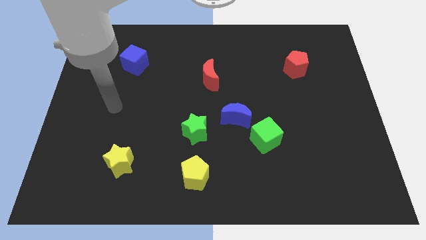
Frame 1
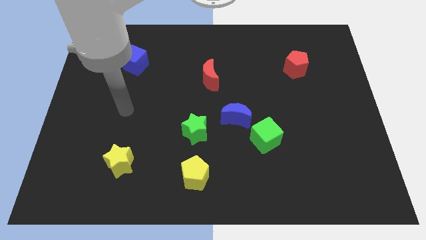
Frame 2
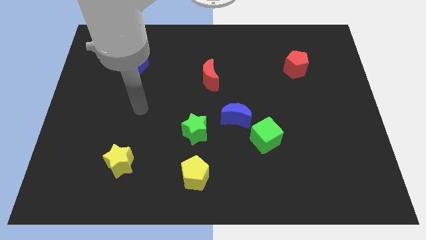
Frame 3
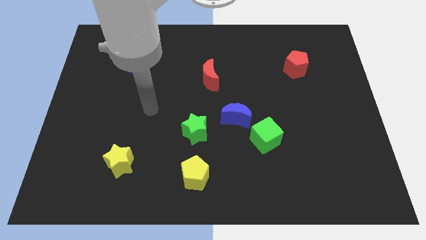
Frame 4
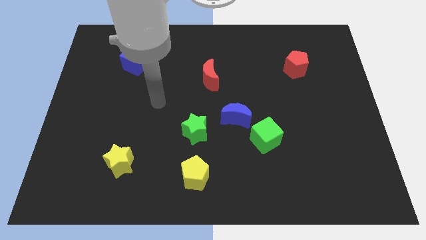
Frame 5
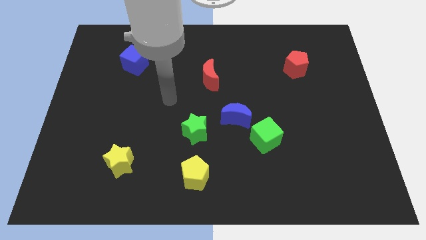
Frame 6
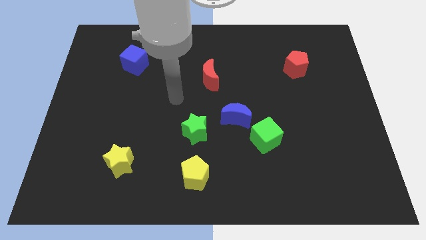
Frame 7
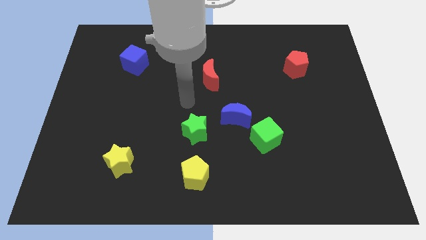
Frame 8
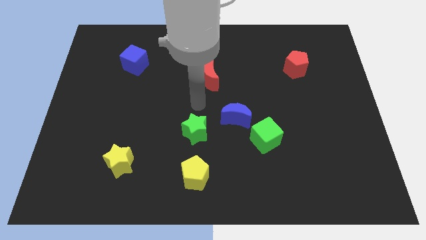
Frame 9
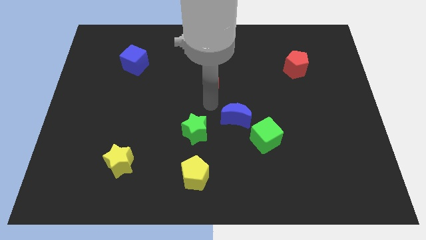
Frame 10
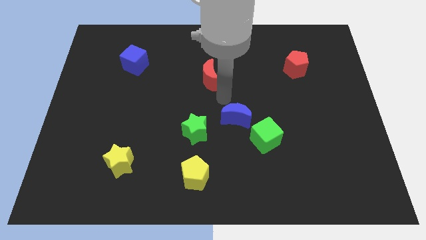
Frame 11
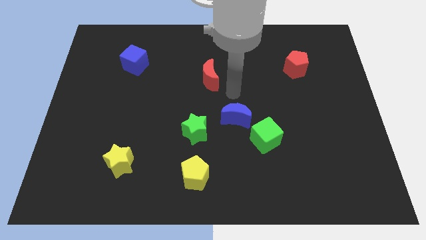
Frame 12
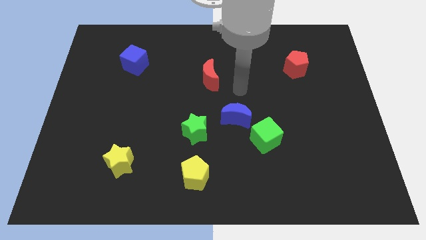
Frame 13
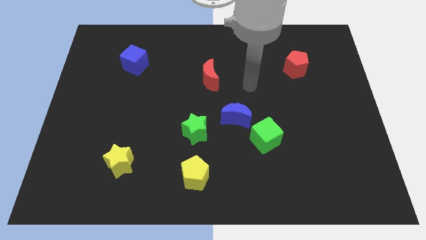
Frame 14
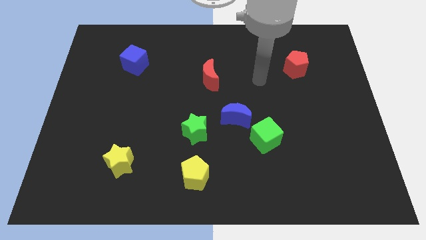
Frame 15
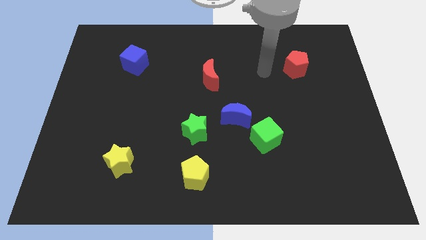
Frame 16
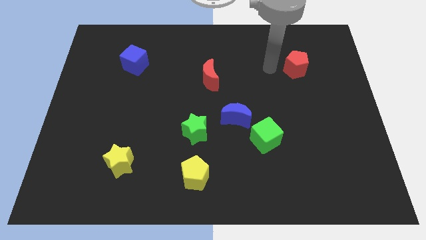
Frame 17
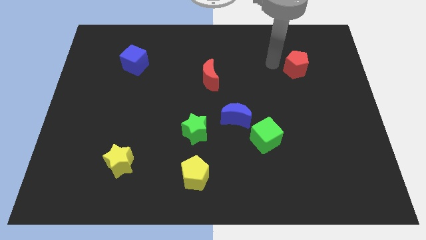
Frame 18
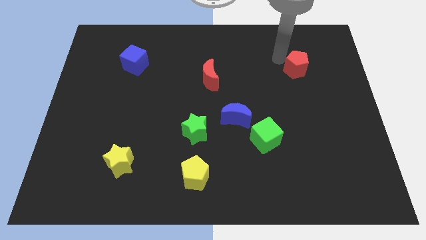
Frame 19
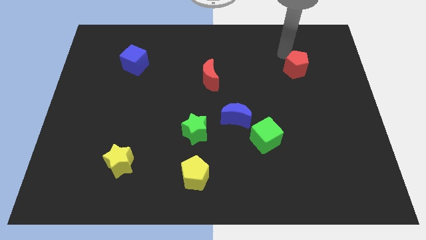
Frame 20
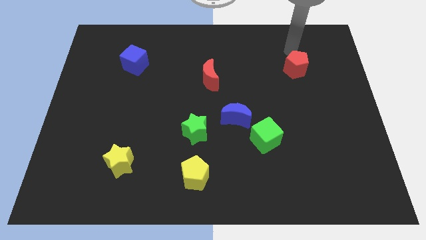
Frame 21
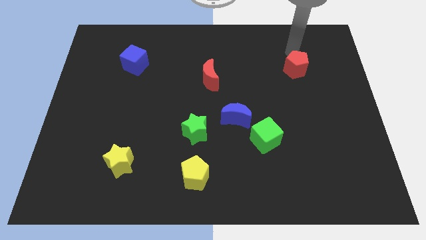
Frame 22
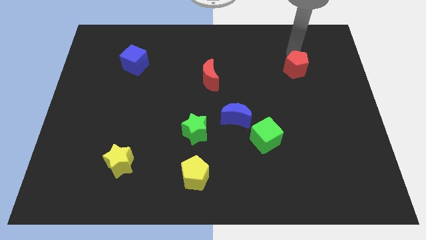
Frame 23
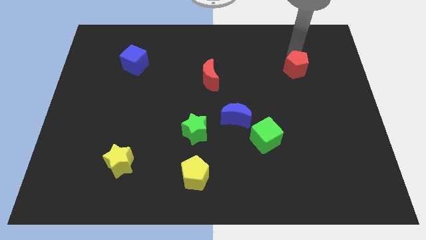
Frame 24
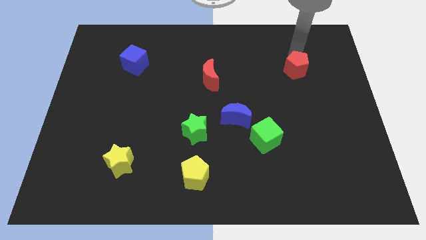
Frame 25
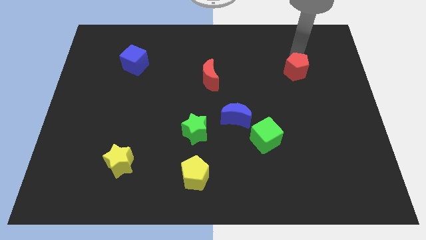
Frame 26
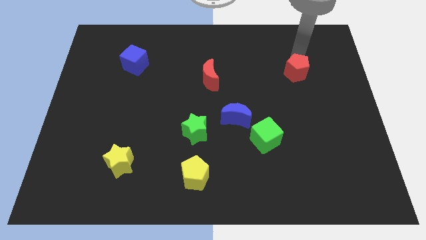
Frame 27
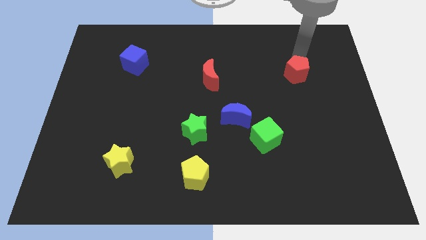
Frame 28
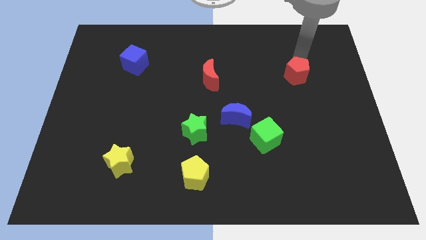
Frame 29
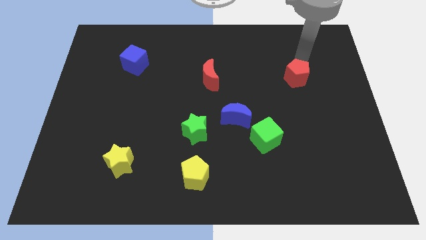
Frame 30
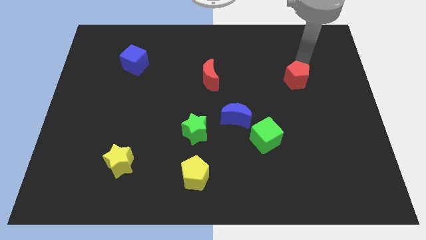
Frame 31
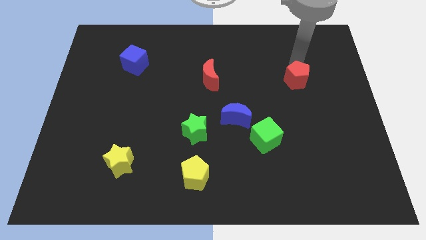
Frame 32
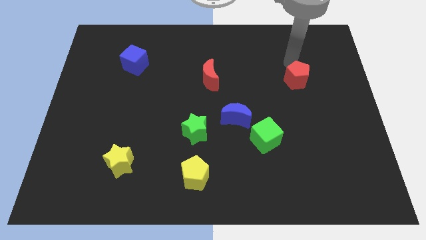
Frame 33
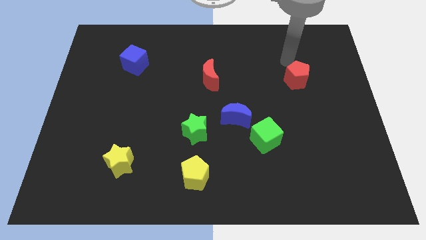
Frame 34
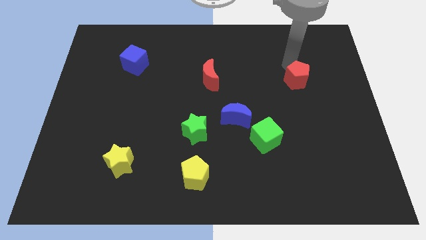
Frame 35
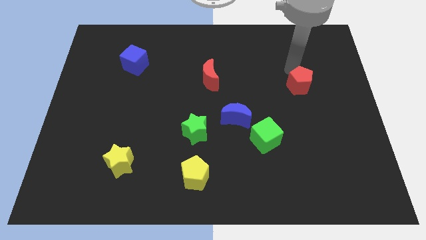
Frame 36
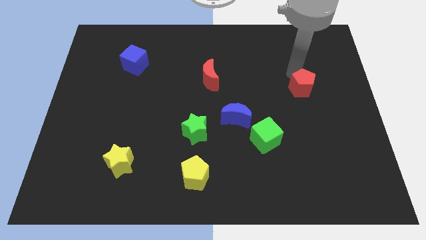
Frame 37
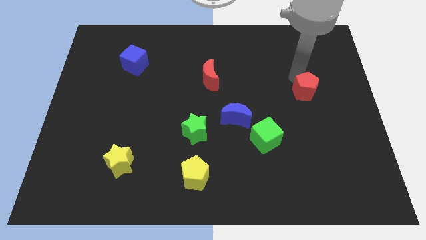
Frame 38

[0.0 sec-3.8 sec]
push the red pentagon down somewhat

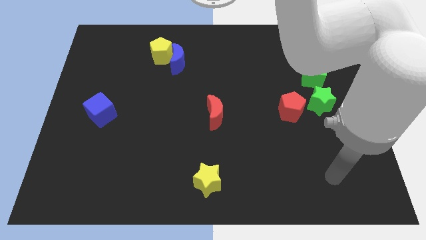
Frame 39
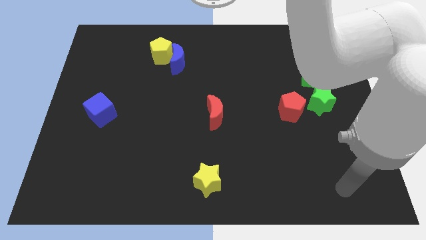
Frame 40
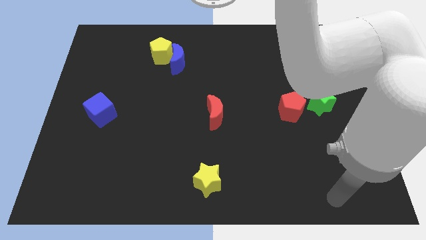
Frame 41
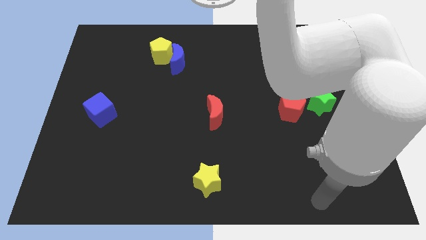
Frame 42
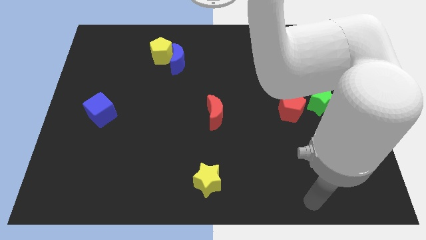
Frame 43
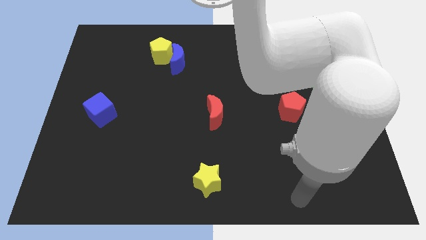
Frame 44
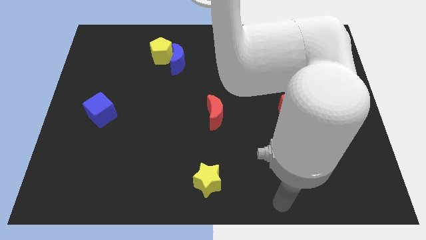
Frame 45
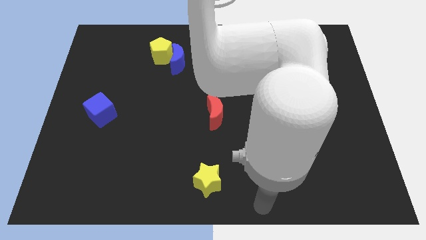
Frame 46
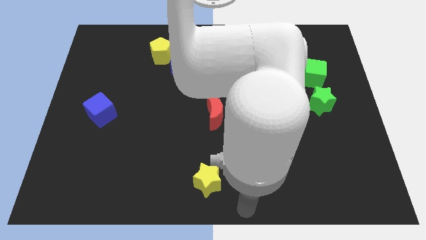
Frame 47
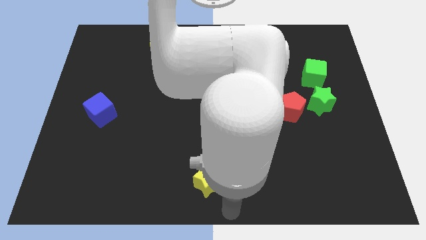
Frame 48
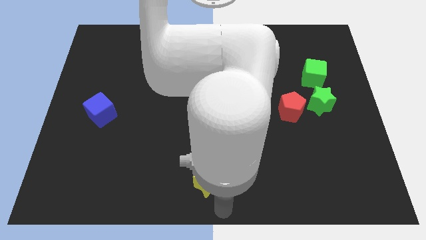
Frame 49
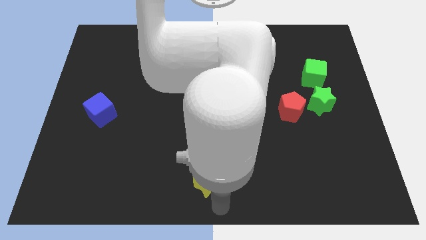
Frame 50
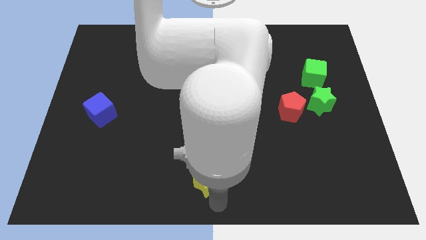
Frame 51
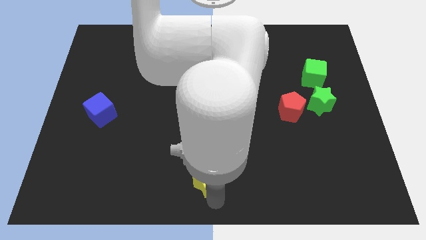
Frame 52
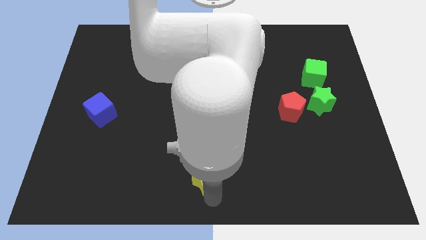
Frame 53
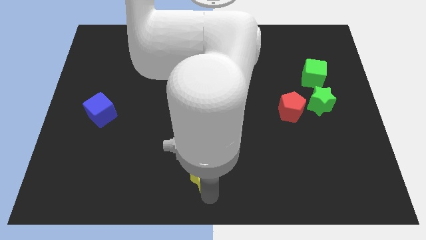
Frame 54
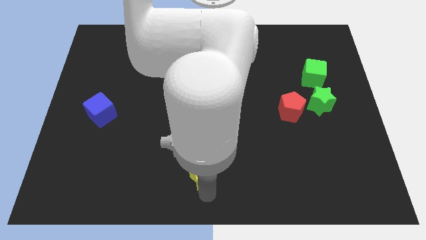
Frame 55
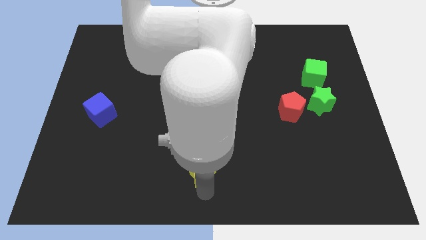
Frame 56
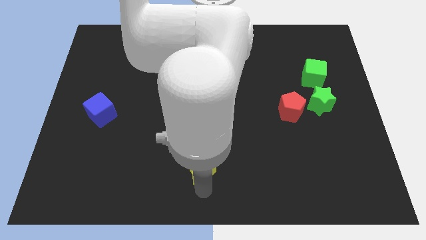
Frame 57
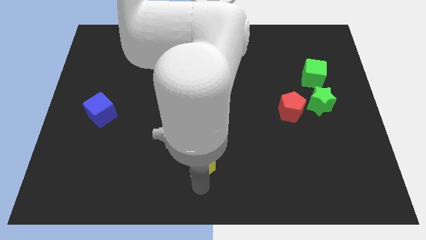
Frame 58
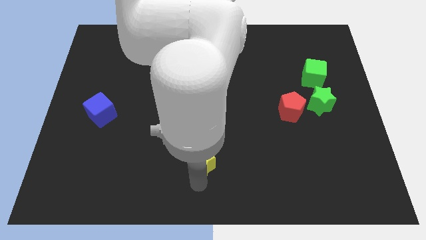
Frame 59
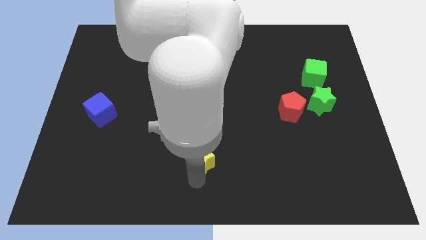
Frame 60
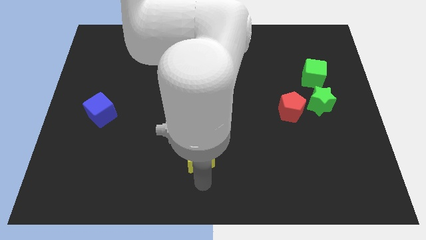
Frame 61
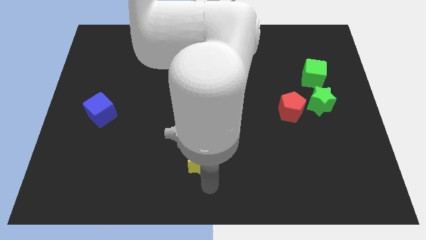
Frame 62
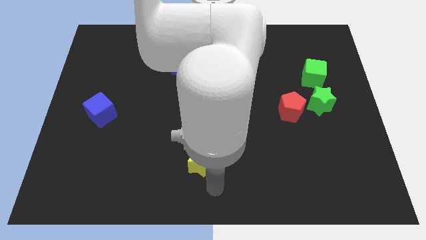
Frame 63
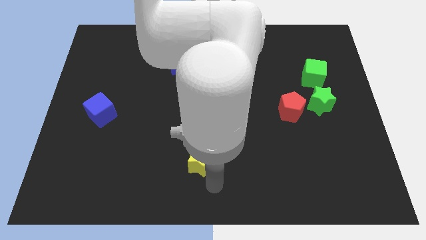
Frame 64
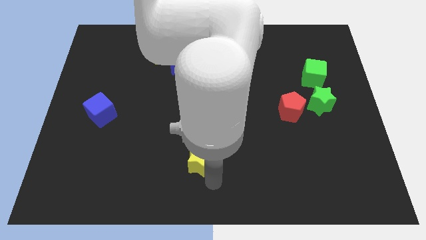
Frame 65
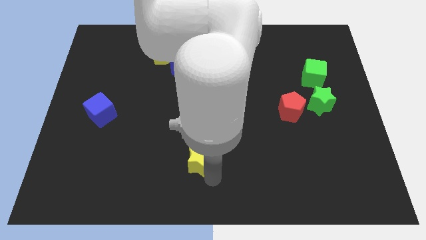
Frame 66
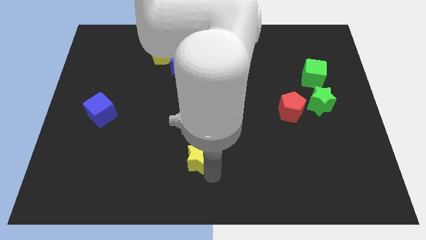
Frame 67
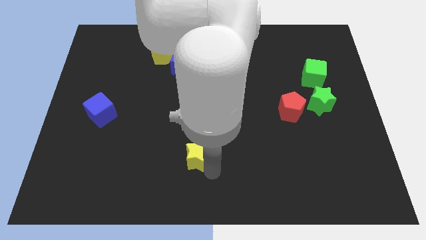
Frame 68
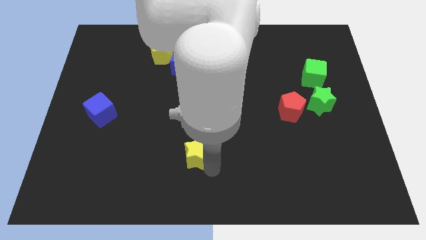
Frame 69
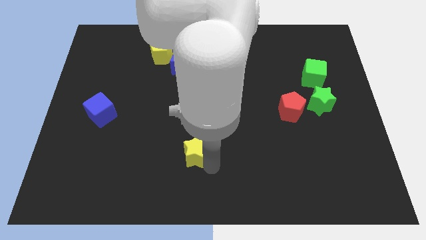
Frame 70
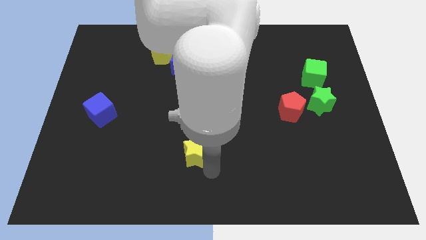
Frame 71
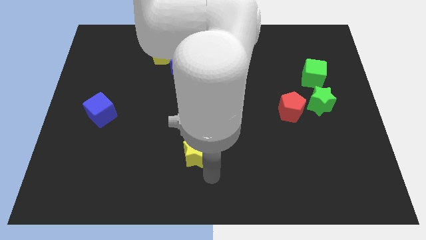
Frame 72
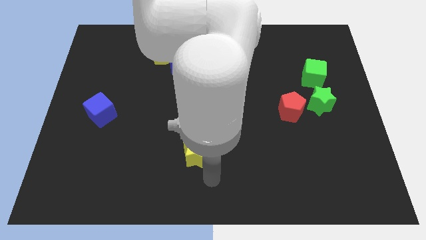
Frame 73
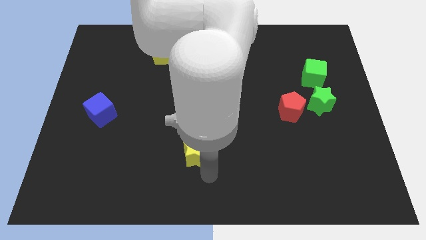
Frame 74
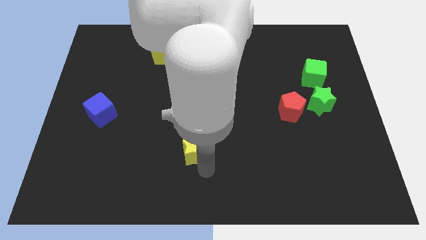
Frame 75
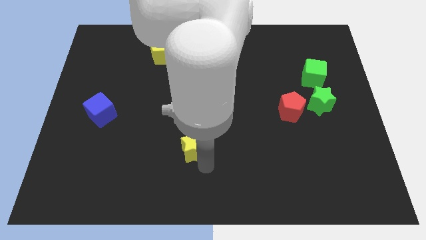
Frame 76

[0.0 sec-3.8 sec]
slightly push the yellow star upwards and left

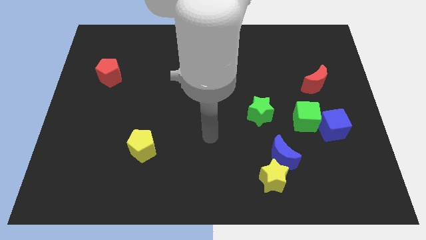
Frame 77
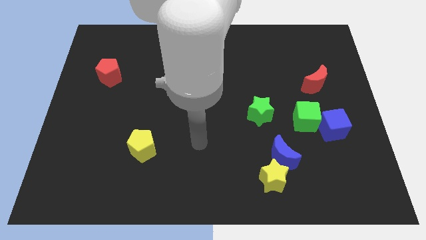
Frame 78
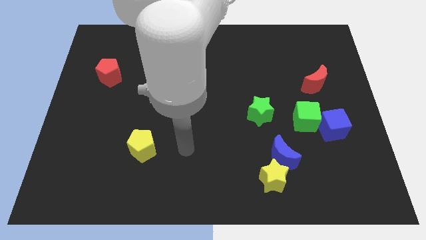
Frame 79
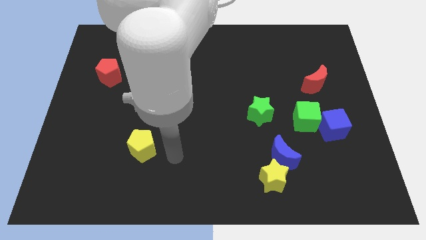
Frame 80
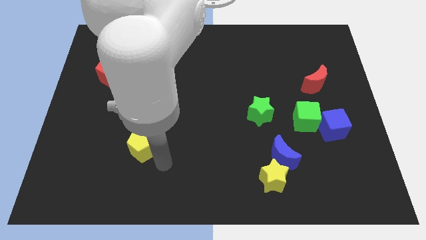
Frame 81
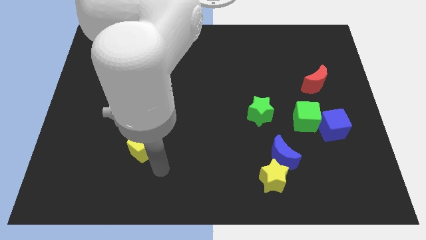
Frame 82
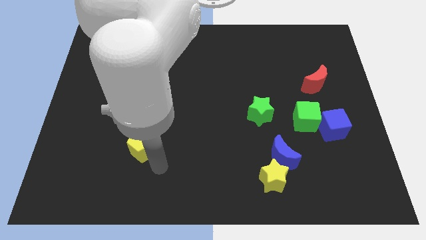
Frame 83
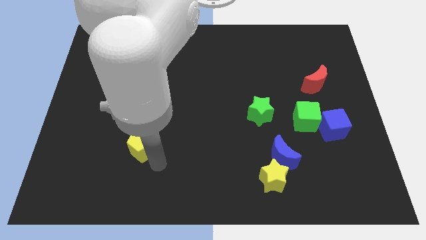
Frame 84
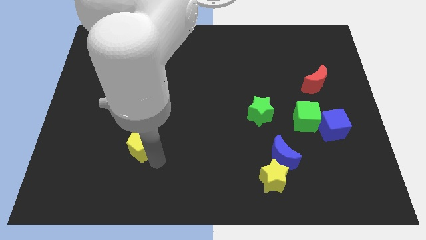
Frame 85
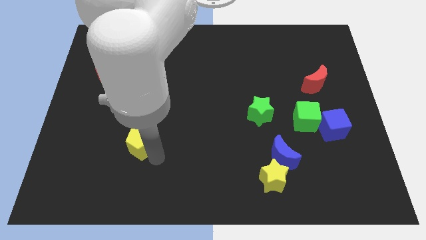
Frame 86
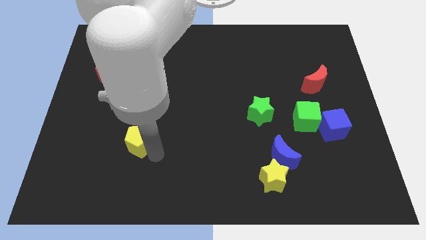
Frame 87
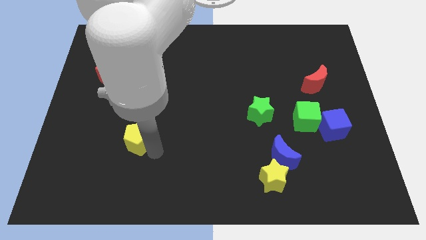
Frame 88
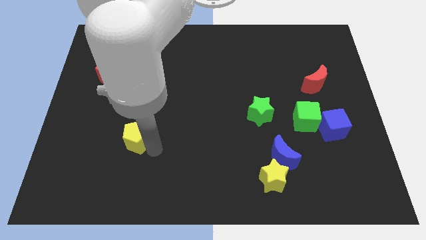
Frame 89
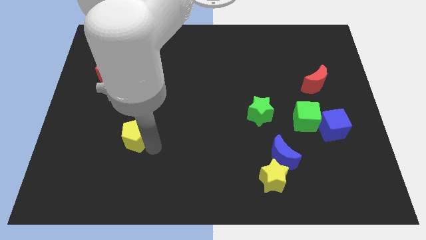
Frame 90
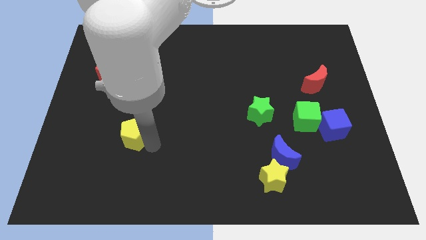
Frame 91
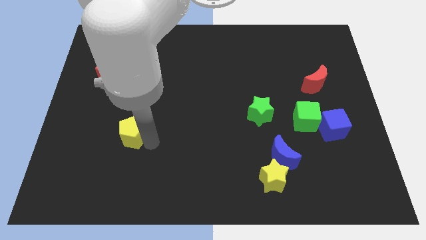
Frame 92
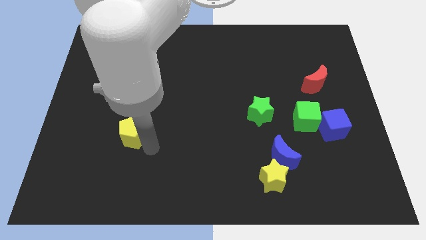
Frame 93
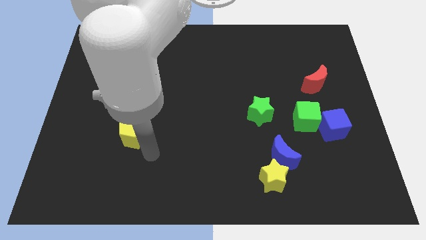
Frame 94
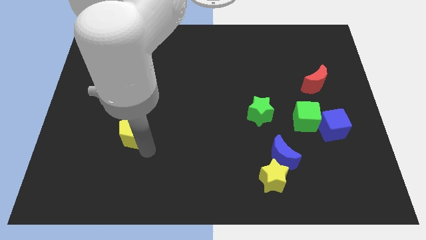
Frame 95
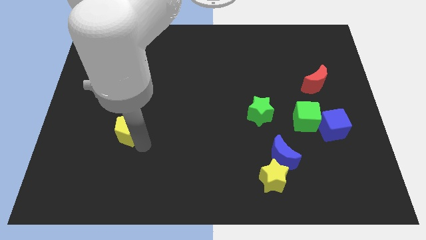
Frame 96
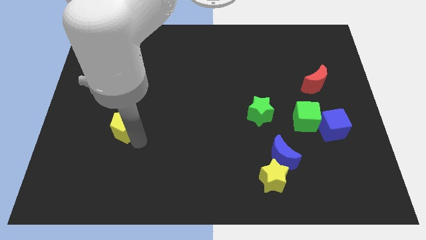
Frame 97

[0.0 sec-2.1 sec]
slide the yellow pentagon diagonally up and left slightly
